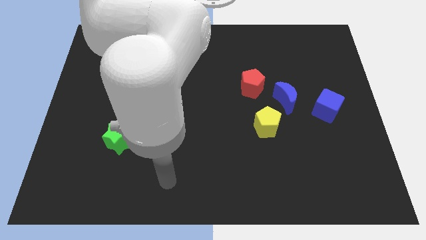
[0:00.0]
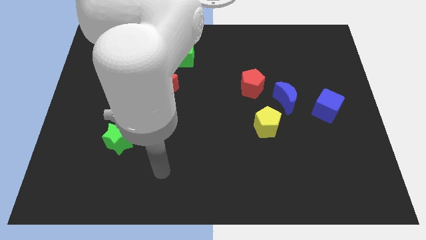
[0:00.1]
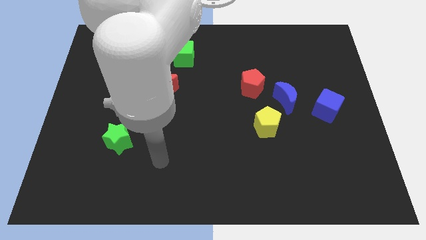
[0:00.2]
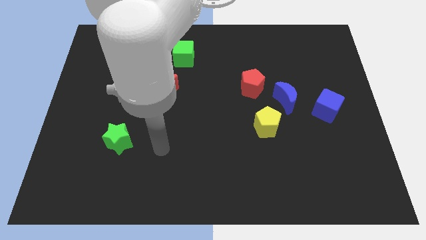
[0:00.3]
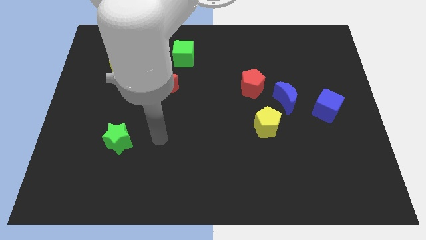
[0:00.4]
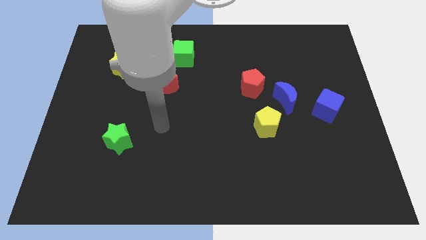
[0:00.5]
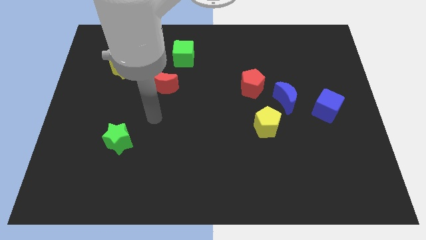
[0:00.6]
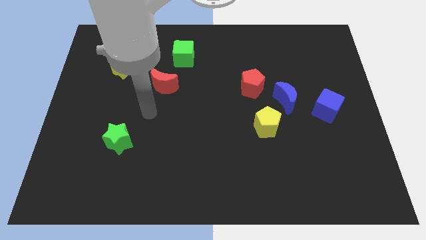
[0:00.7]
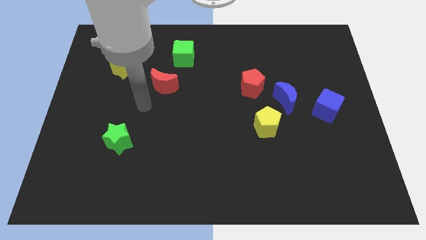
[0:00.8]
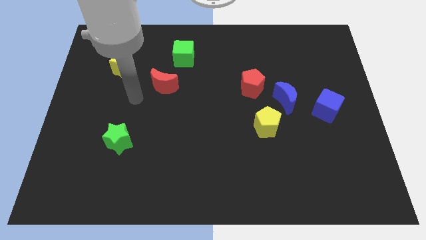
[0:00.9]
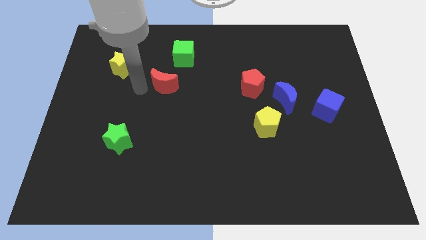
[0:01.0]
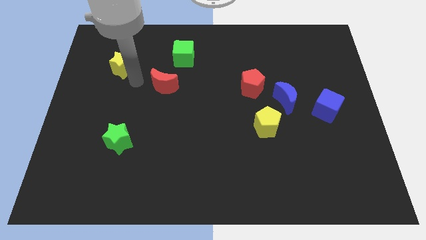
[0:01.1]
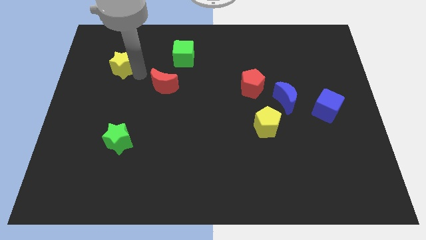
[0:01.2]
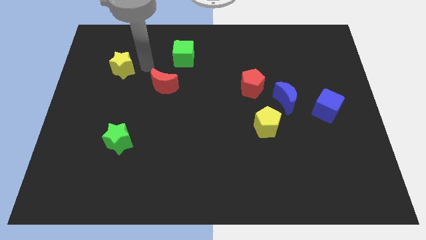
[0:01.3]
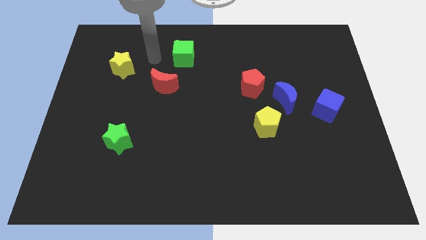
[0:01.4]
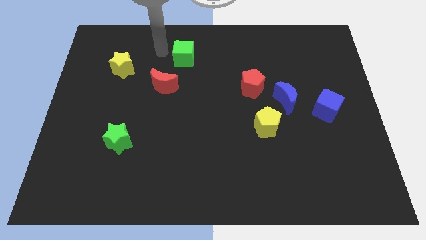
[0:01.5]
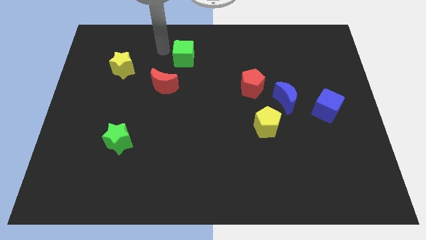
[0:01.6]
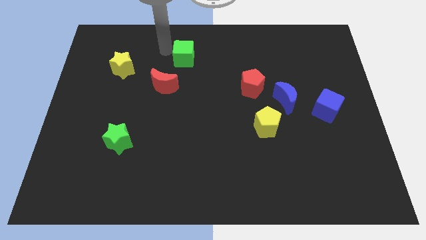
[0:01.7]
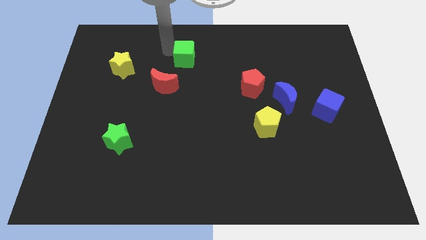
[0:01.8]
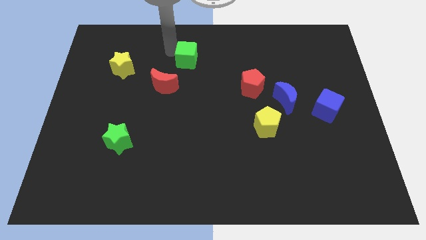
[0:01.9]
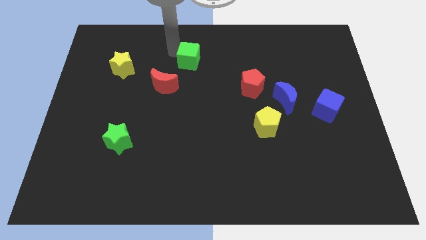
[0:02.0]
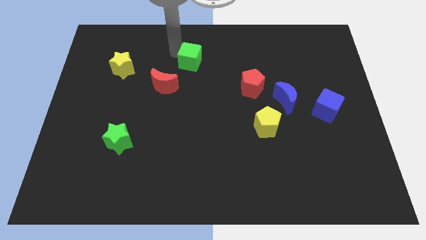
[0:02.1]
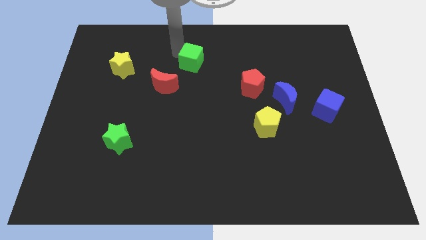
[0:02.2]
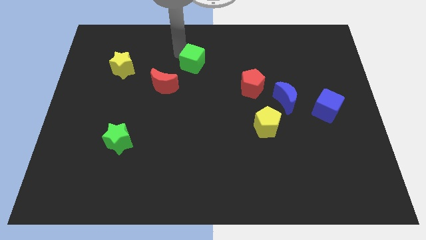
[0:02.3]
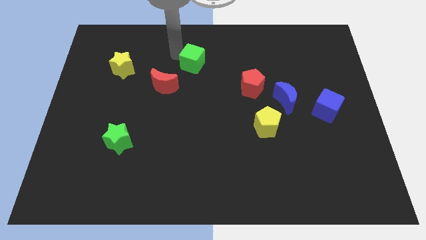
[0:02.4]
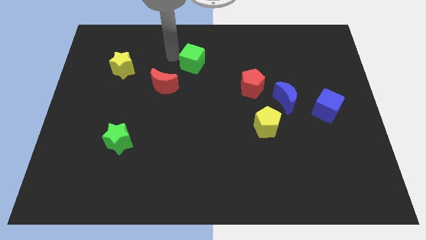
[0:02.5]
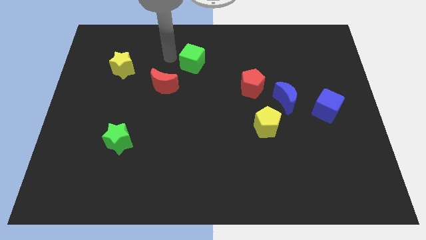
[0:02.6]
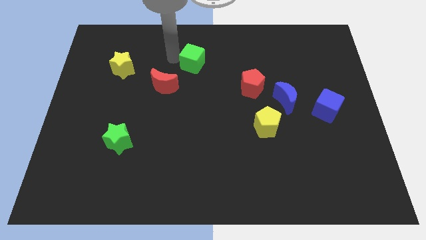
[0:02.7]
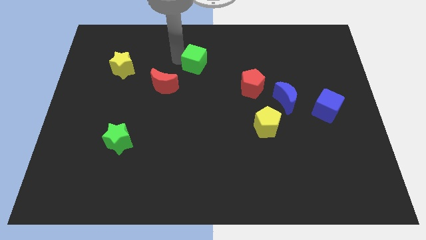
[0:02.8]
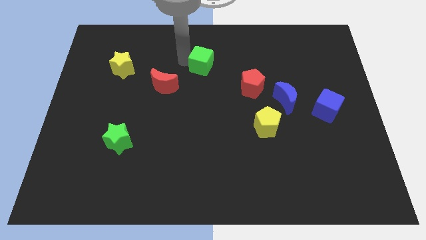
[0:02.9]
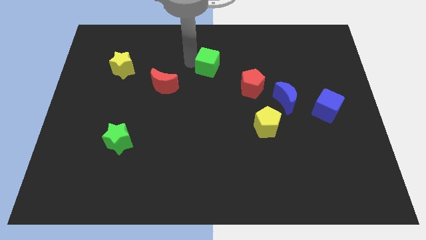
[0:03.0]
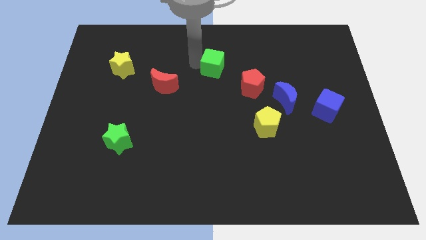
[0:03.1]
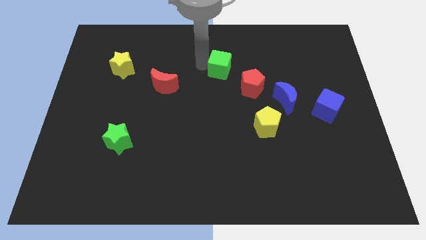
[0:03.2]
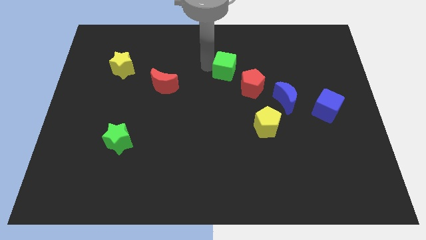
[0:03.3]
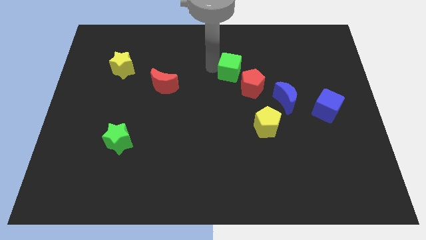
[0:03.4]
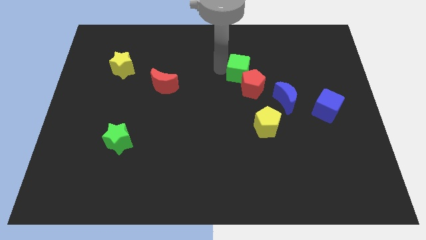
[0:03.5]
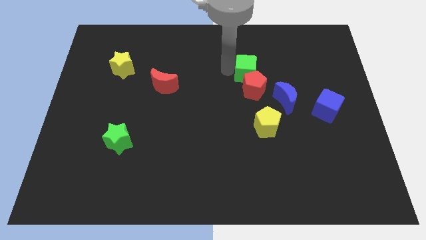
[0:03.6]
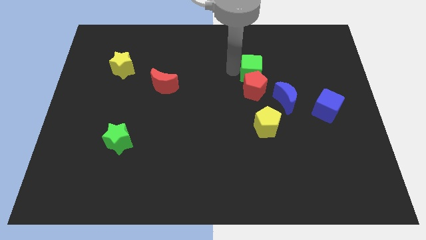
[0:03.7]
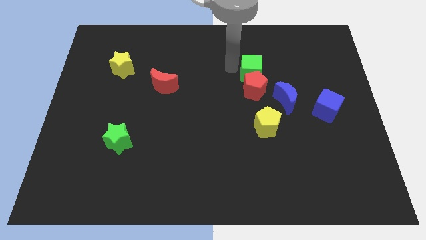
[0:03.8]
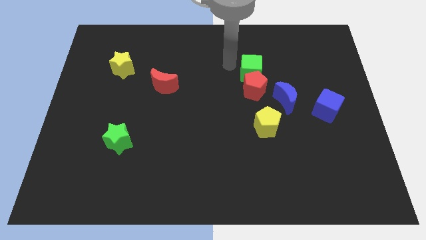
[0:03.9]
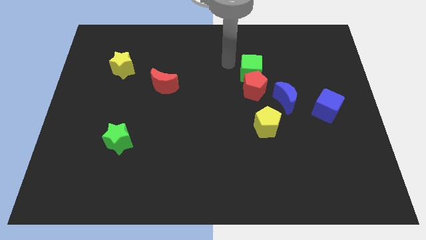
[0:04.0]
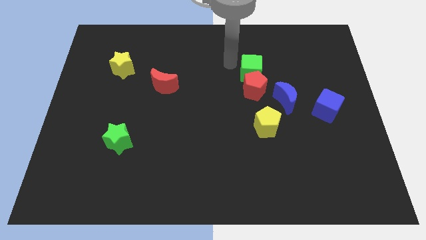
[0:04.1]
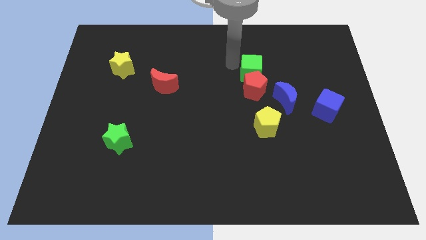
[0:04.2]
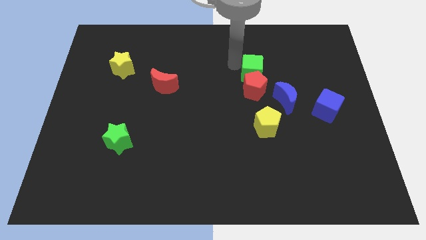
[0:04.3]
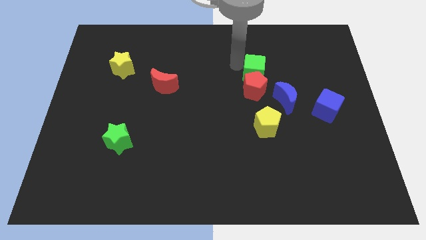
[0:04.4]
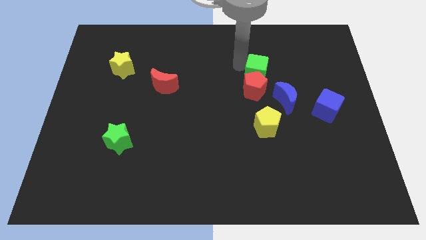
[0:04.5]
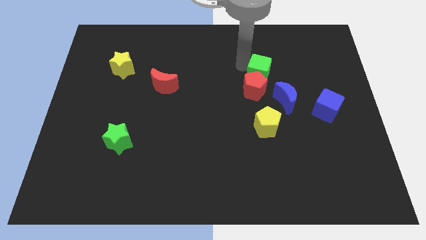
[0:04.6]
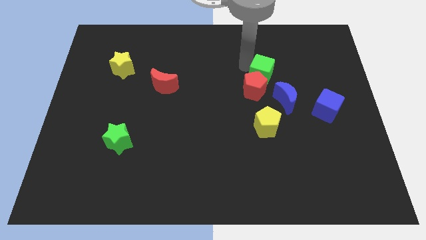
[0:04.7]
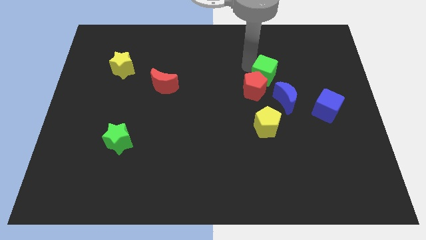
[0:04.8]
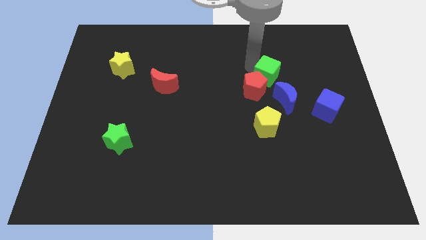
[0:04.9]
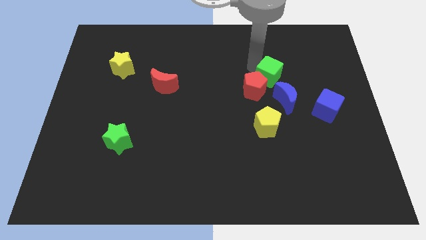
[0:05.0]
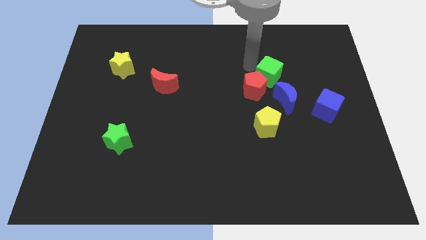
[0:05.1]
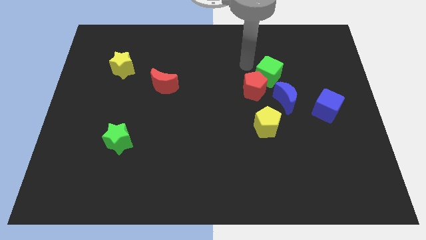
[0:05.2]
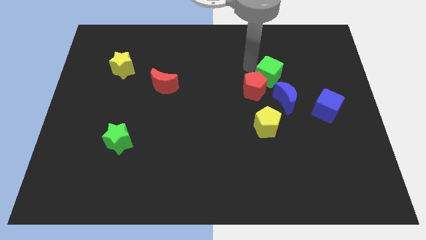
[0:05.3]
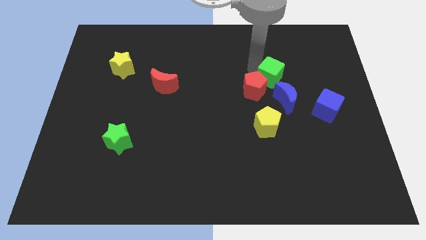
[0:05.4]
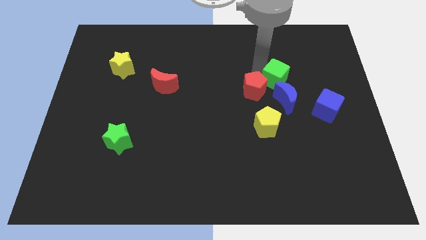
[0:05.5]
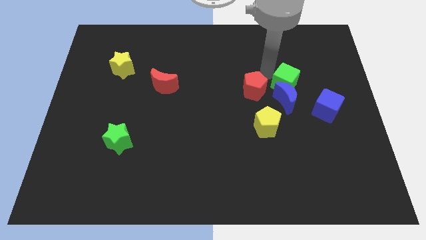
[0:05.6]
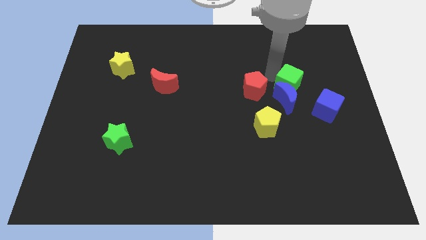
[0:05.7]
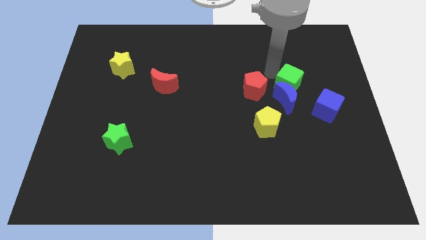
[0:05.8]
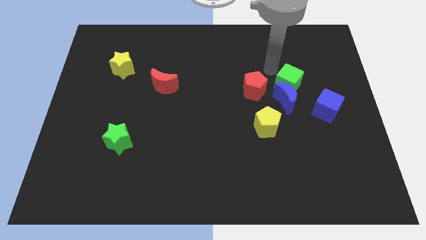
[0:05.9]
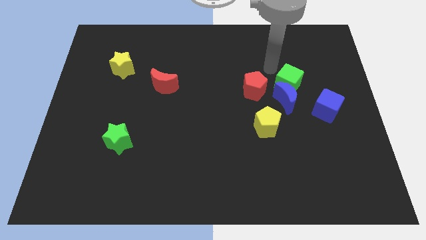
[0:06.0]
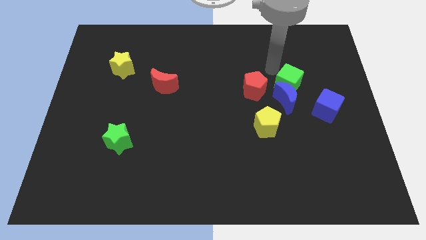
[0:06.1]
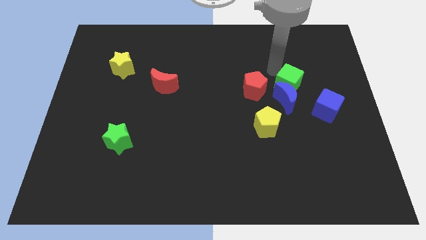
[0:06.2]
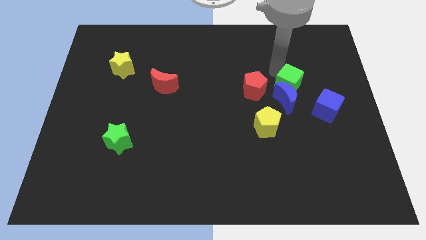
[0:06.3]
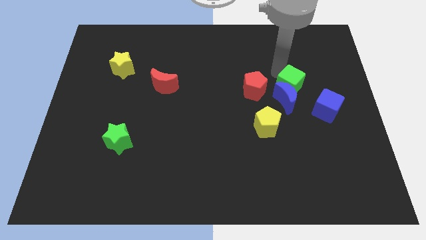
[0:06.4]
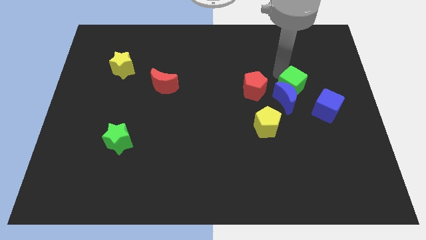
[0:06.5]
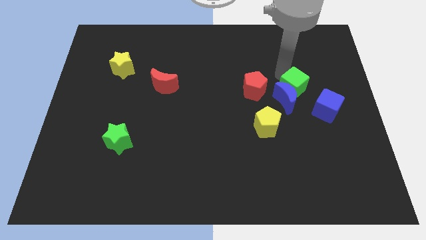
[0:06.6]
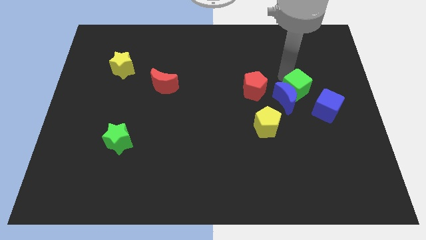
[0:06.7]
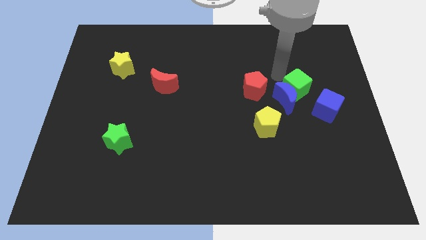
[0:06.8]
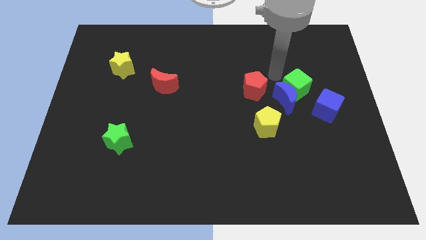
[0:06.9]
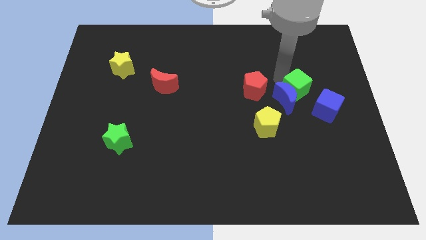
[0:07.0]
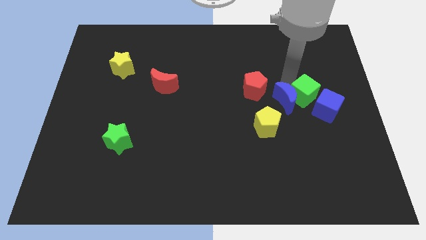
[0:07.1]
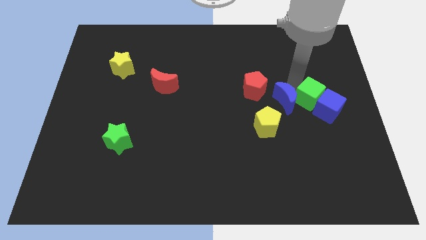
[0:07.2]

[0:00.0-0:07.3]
put the green cube to the blue cube
